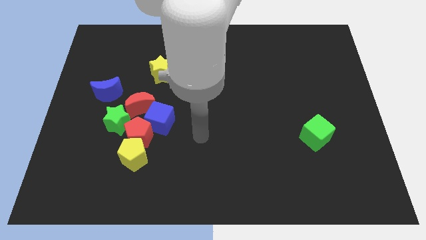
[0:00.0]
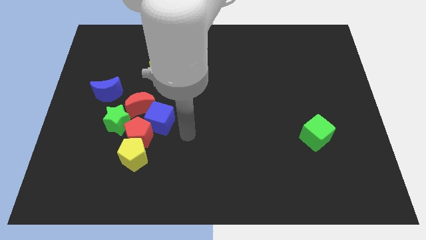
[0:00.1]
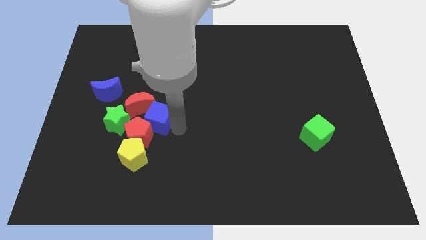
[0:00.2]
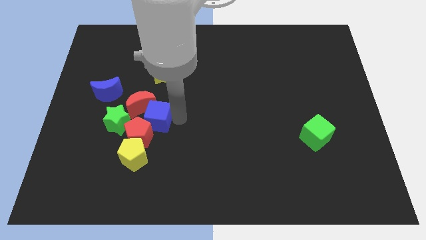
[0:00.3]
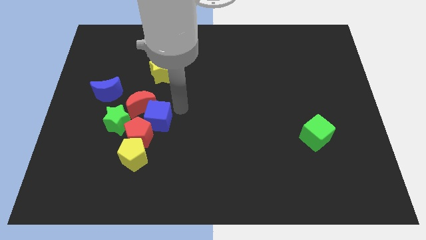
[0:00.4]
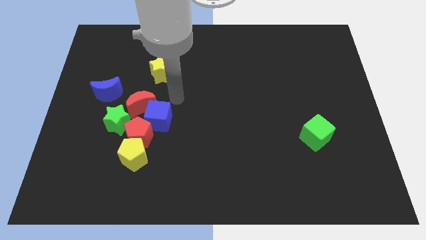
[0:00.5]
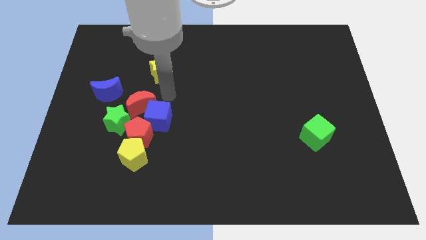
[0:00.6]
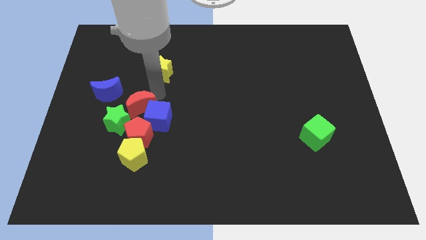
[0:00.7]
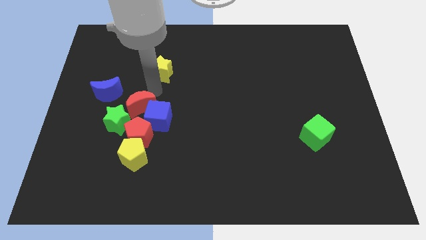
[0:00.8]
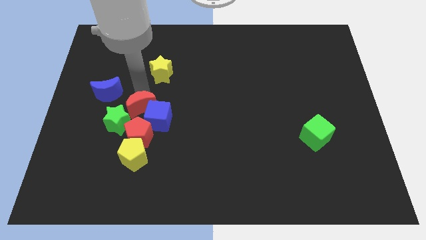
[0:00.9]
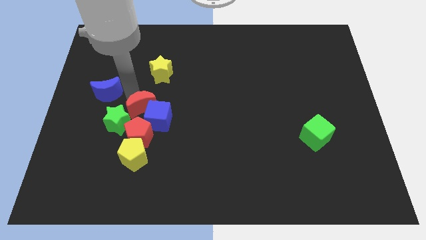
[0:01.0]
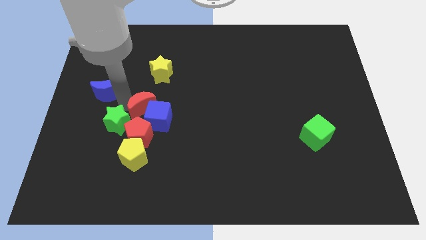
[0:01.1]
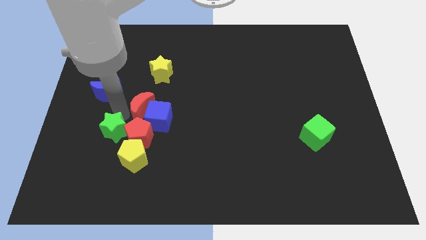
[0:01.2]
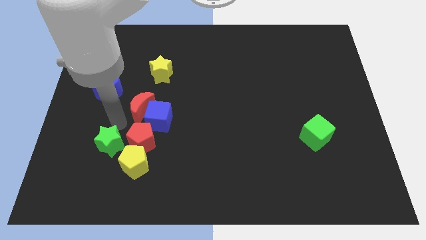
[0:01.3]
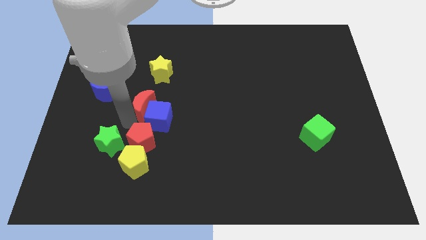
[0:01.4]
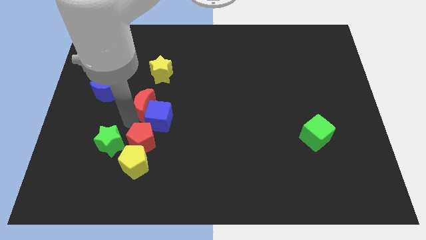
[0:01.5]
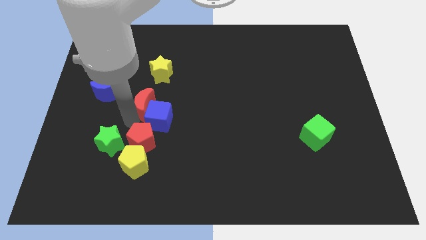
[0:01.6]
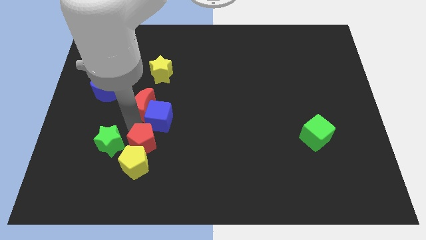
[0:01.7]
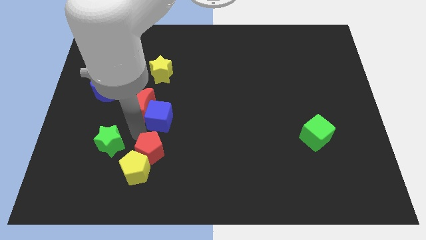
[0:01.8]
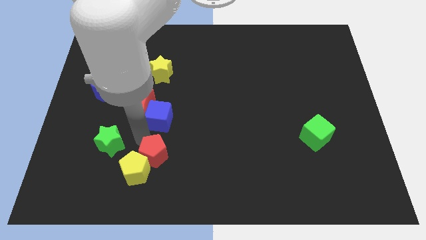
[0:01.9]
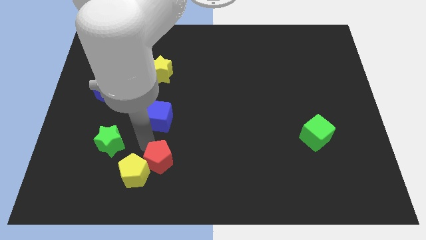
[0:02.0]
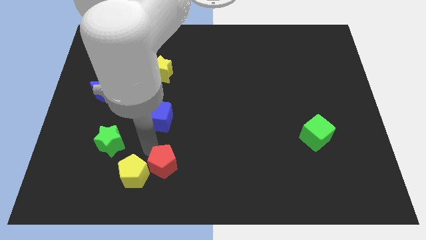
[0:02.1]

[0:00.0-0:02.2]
pull the red pentagon apart from the clump

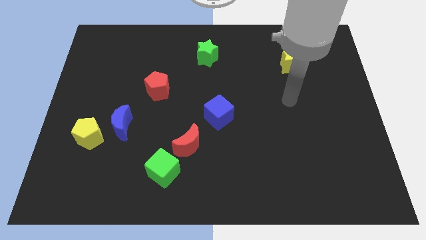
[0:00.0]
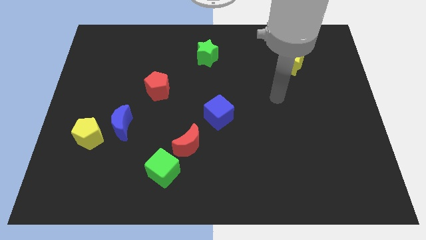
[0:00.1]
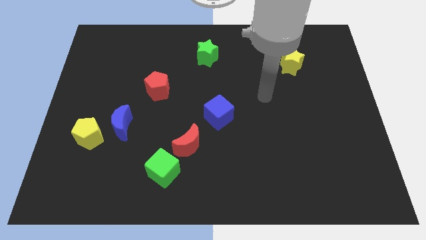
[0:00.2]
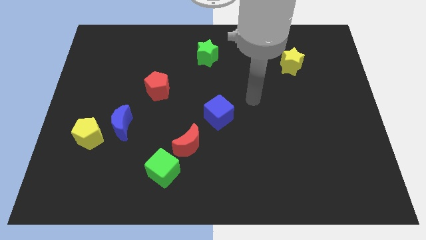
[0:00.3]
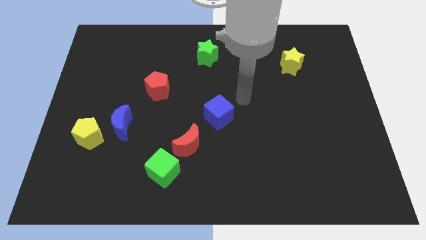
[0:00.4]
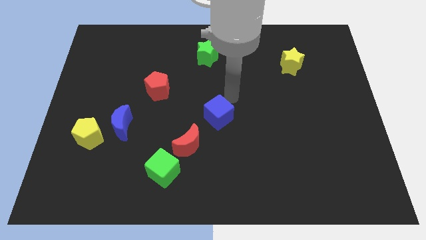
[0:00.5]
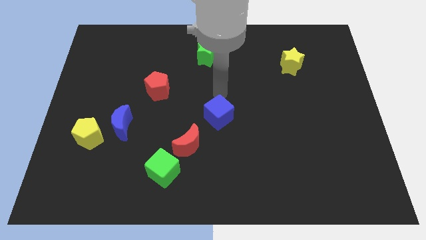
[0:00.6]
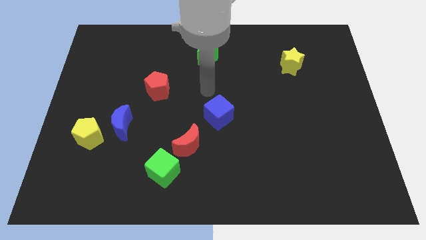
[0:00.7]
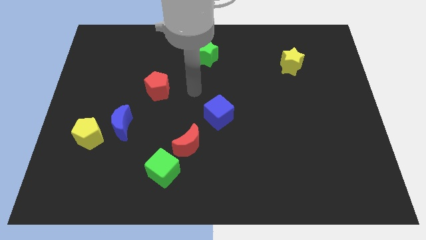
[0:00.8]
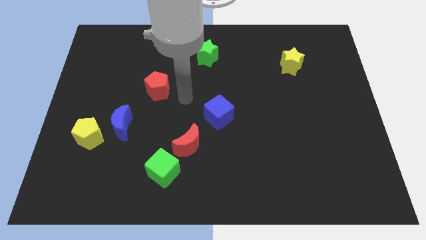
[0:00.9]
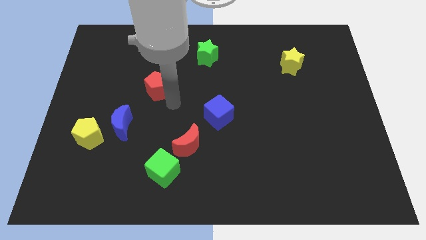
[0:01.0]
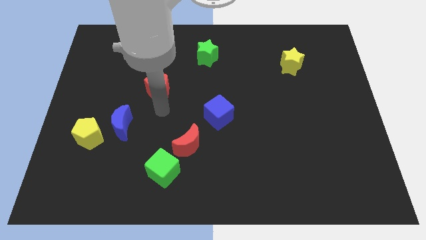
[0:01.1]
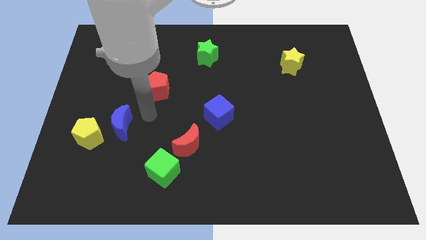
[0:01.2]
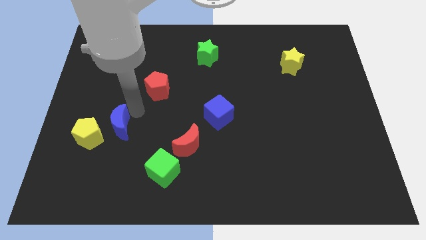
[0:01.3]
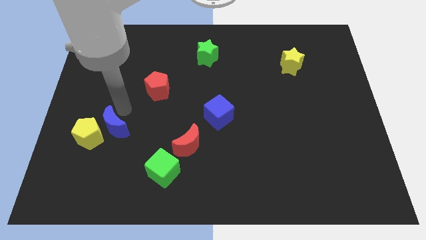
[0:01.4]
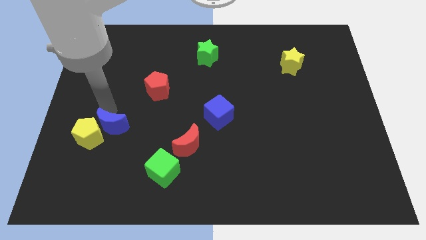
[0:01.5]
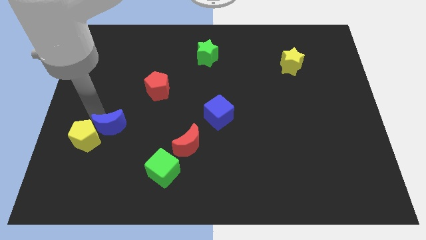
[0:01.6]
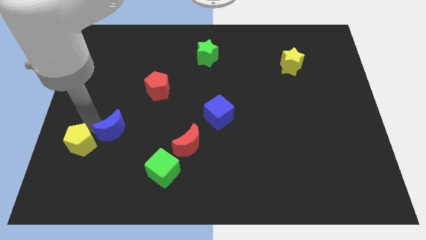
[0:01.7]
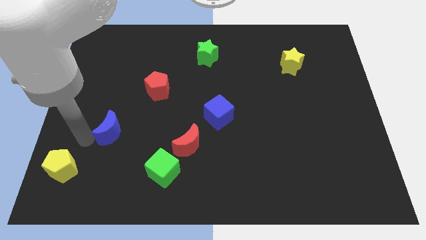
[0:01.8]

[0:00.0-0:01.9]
pull the blue moon apart from the yellow pentagon

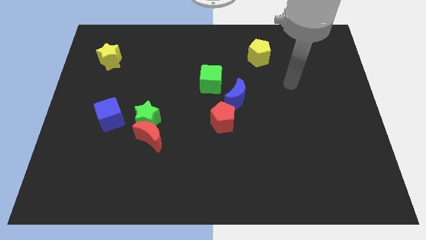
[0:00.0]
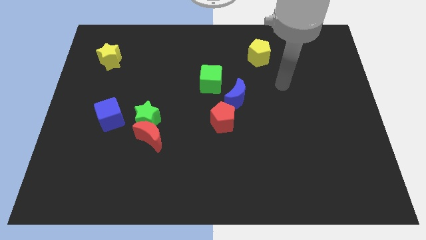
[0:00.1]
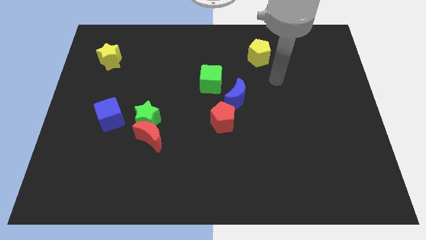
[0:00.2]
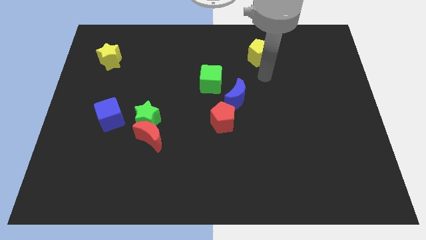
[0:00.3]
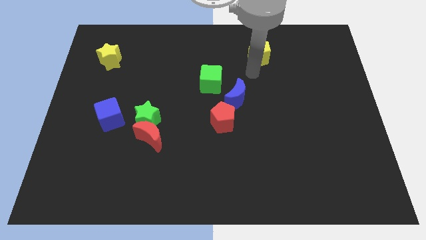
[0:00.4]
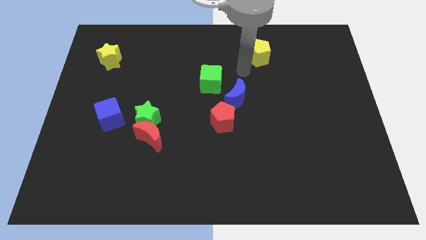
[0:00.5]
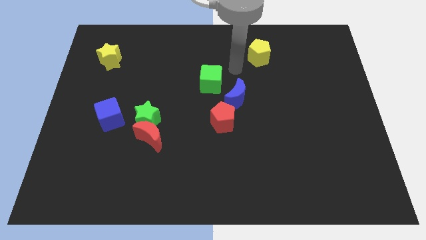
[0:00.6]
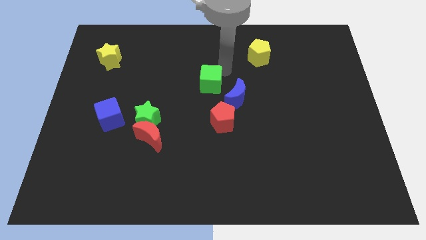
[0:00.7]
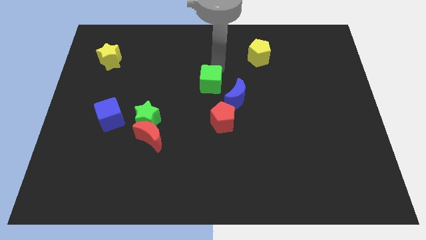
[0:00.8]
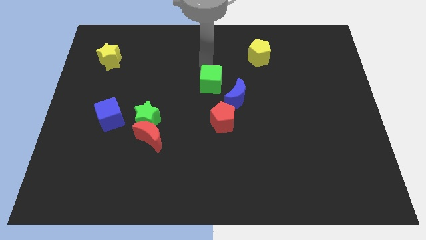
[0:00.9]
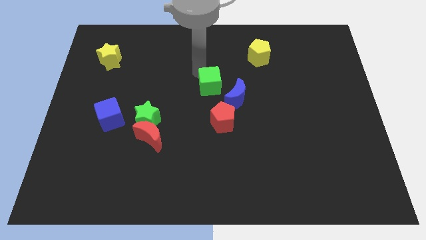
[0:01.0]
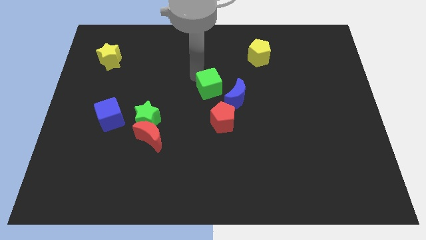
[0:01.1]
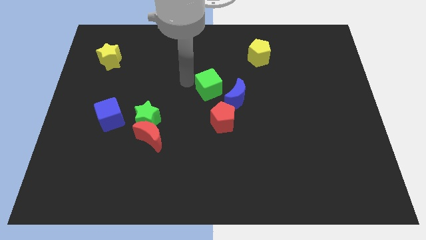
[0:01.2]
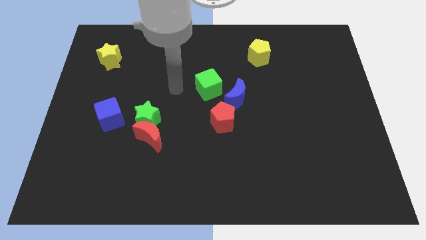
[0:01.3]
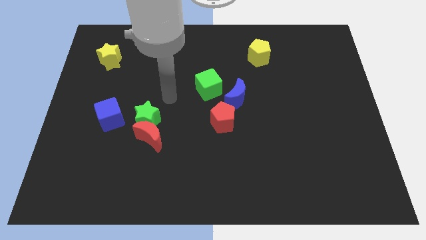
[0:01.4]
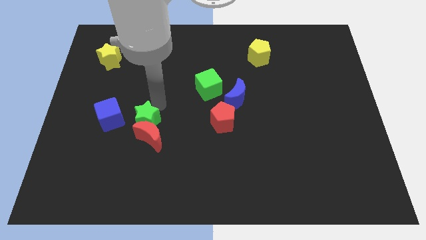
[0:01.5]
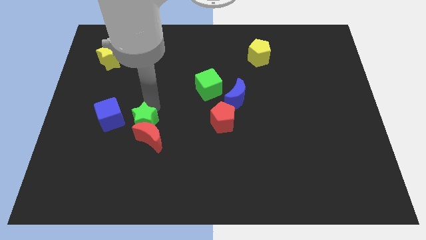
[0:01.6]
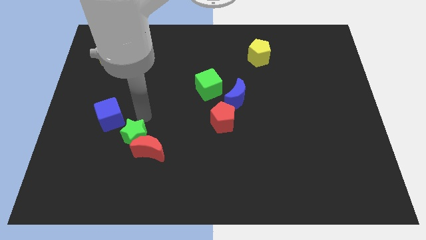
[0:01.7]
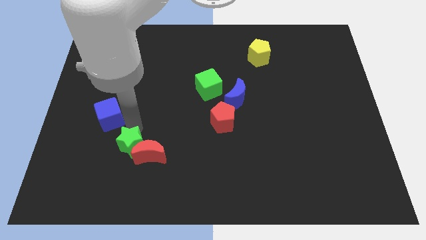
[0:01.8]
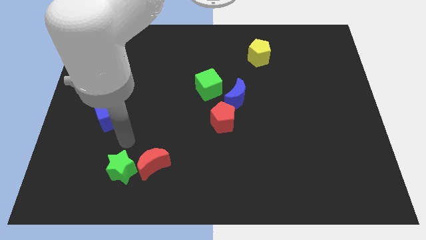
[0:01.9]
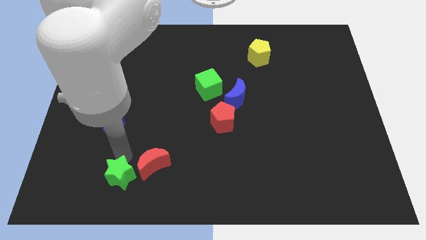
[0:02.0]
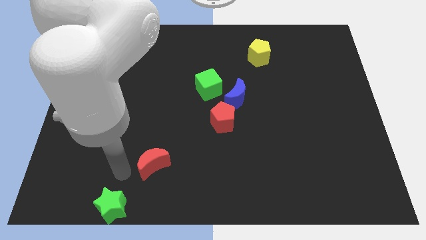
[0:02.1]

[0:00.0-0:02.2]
pull the red moon apart from the green star

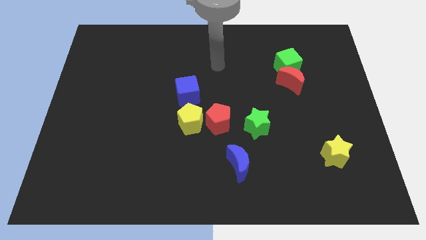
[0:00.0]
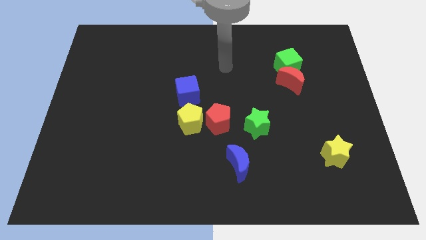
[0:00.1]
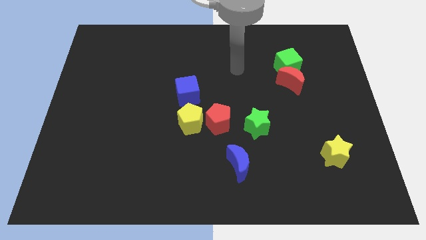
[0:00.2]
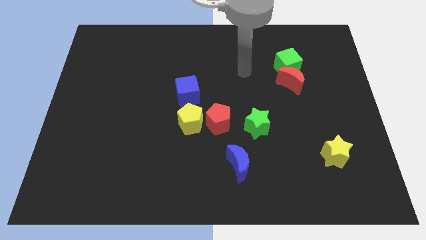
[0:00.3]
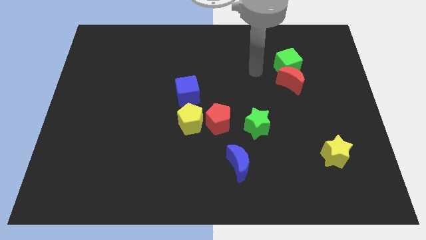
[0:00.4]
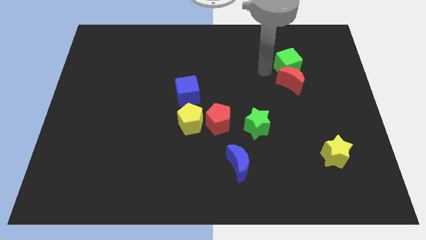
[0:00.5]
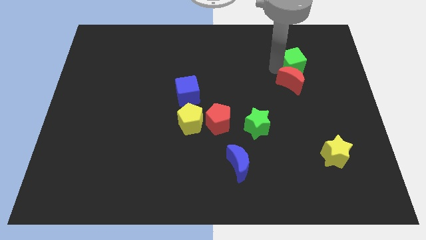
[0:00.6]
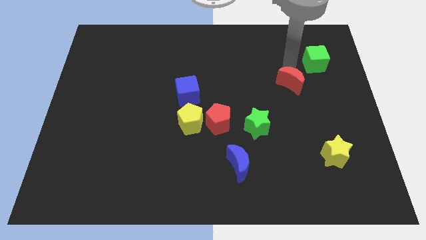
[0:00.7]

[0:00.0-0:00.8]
separate the red moon from the green cube

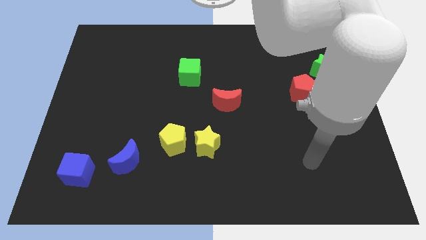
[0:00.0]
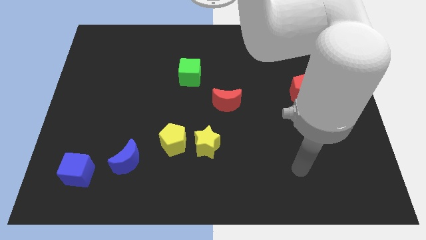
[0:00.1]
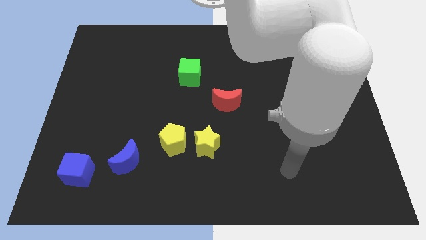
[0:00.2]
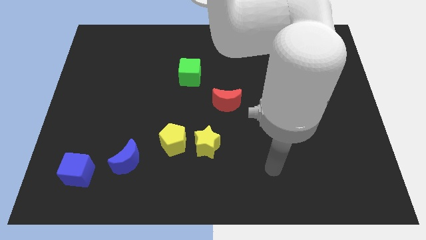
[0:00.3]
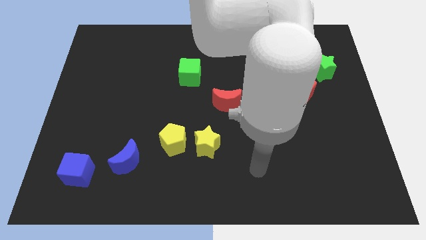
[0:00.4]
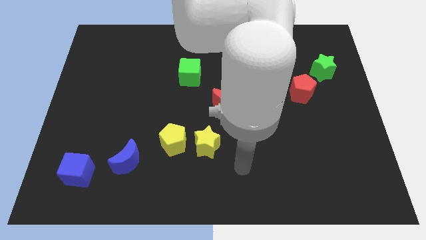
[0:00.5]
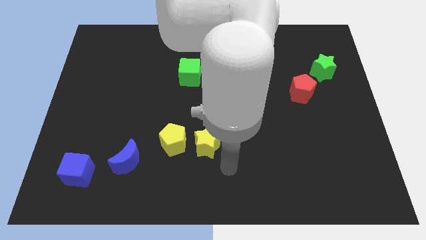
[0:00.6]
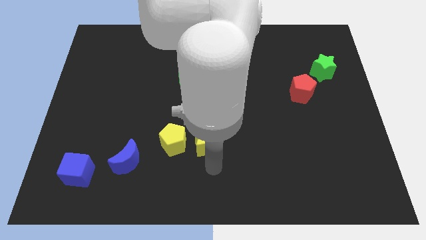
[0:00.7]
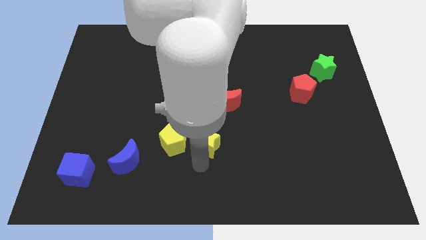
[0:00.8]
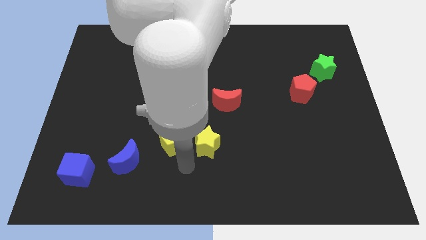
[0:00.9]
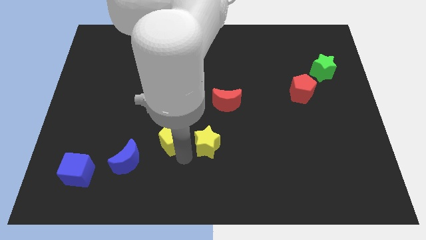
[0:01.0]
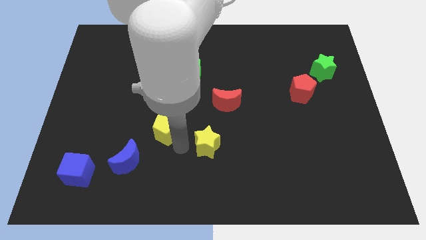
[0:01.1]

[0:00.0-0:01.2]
separate the yellow star from the yellow pentagon

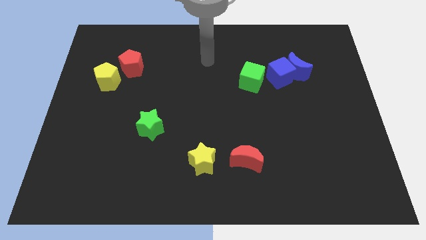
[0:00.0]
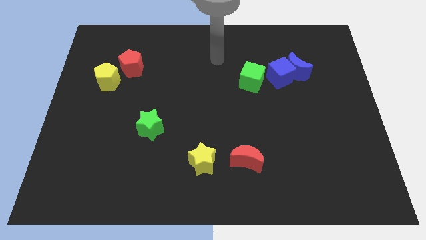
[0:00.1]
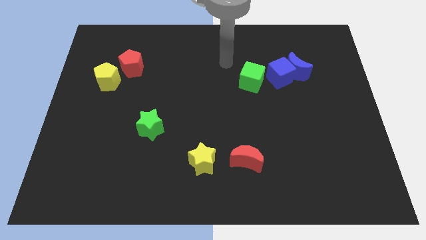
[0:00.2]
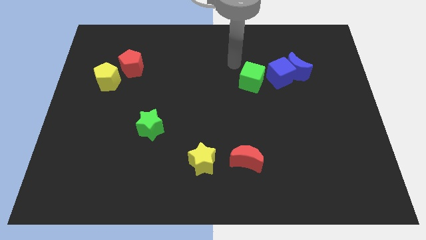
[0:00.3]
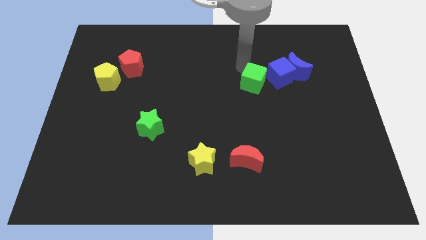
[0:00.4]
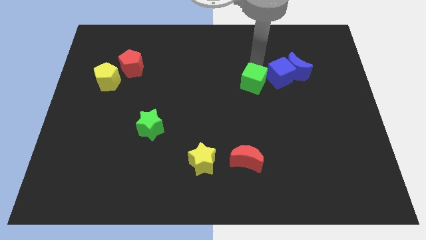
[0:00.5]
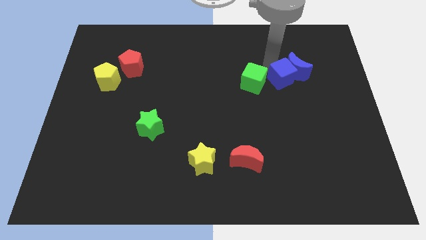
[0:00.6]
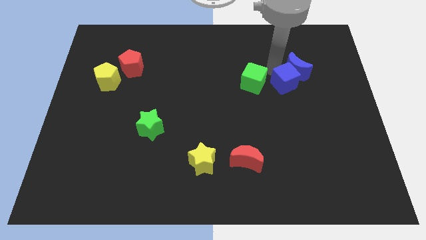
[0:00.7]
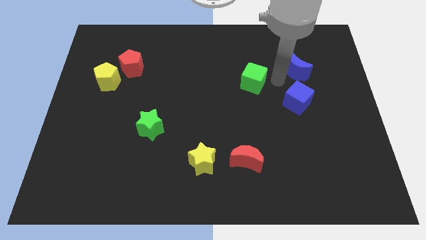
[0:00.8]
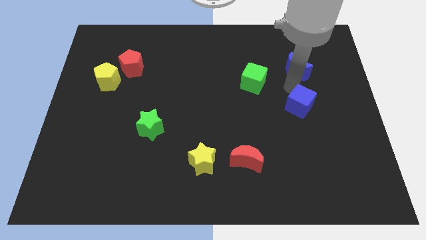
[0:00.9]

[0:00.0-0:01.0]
move the blue moon away from the blue cube
